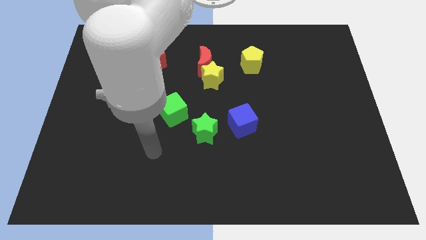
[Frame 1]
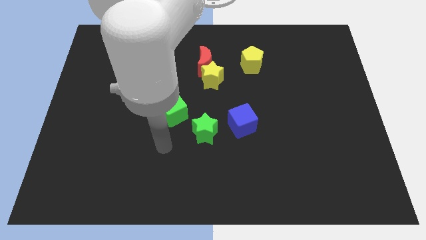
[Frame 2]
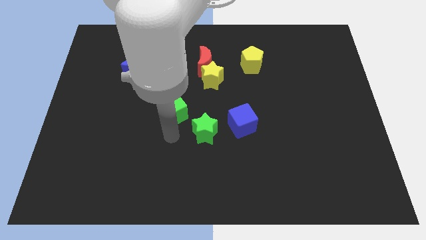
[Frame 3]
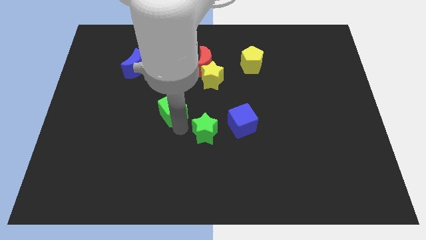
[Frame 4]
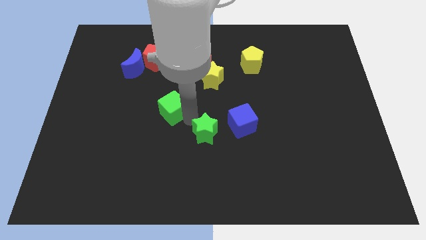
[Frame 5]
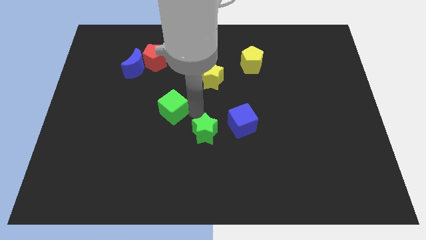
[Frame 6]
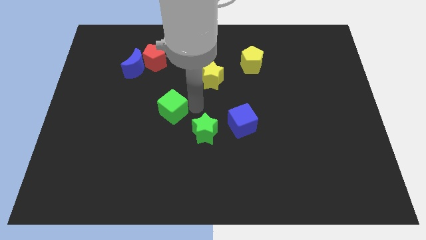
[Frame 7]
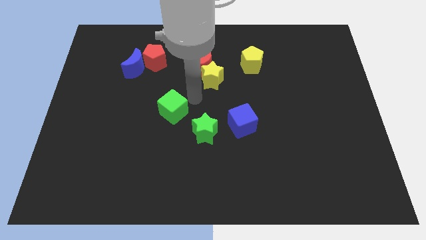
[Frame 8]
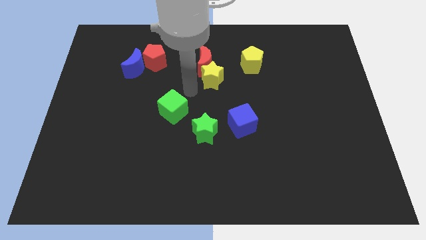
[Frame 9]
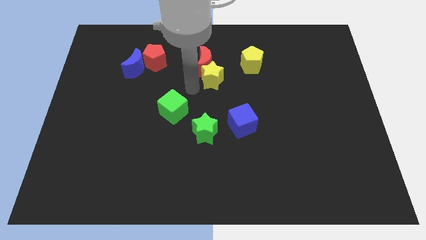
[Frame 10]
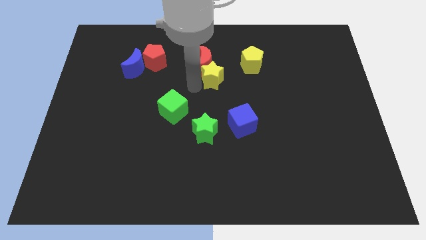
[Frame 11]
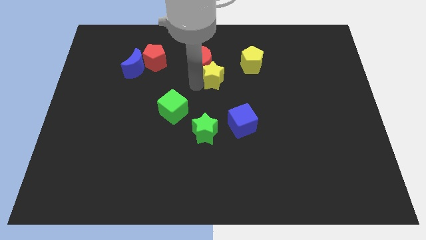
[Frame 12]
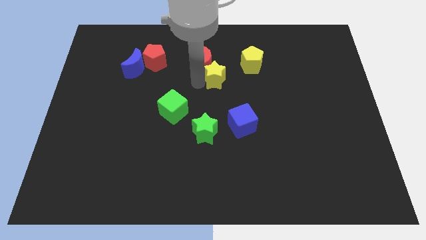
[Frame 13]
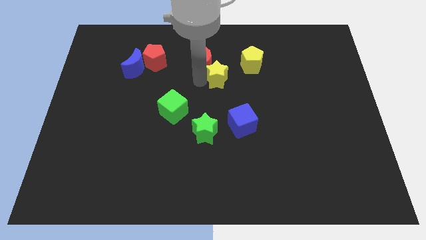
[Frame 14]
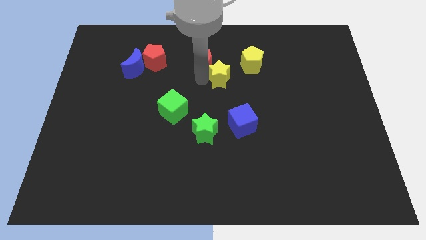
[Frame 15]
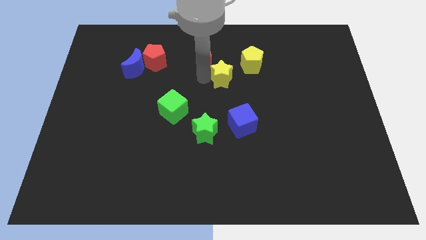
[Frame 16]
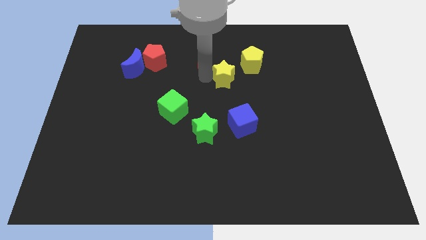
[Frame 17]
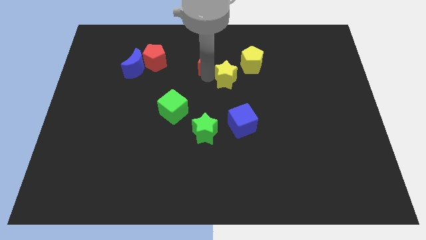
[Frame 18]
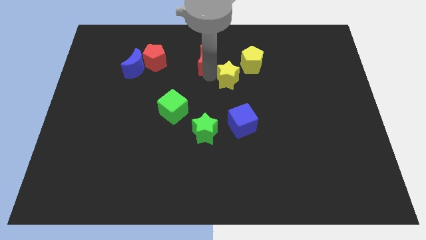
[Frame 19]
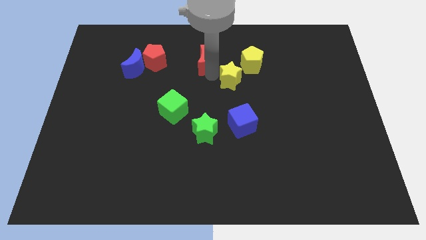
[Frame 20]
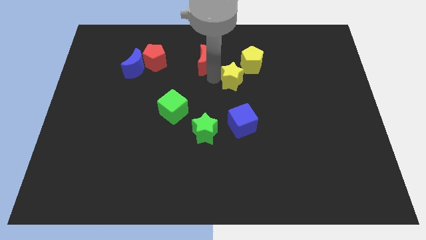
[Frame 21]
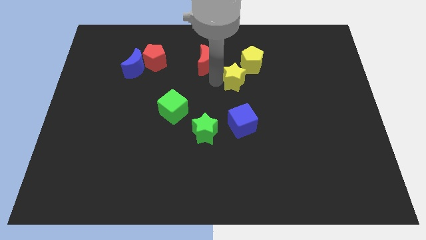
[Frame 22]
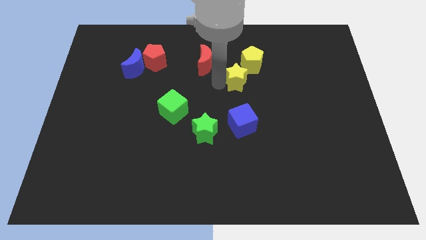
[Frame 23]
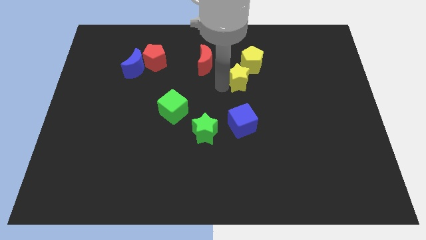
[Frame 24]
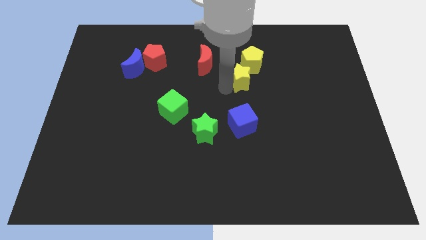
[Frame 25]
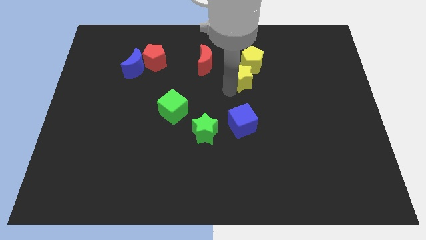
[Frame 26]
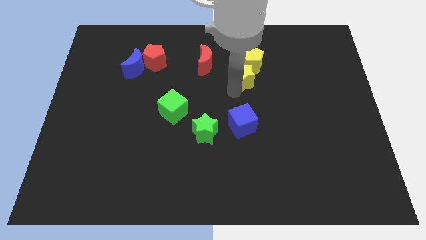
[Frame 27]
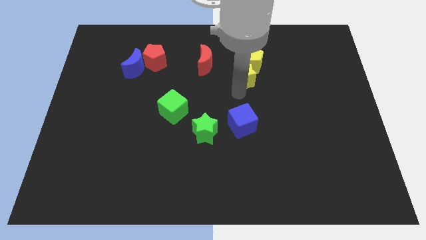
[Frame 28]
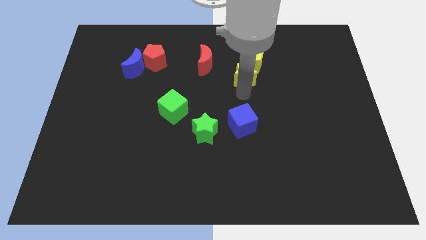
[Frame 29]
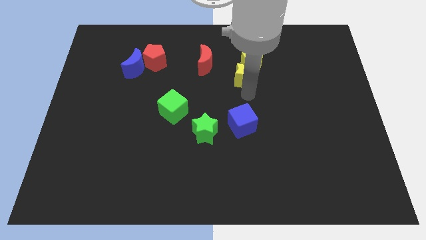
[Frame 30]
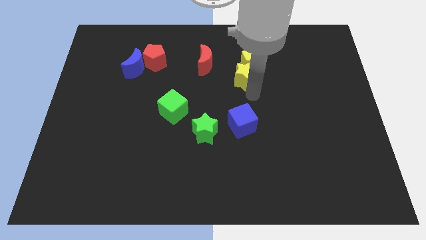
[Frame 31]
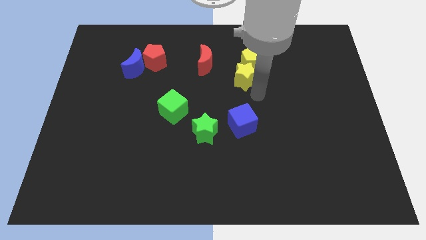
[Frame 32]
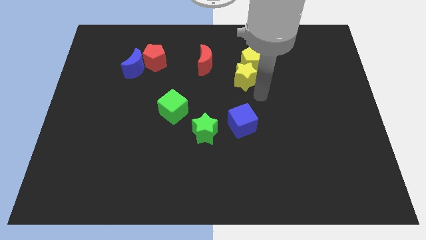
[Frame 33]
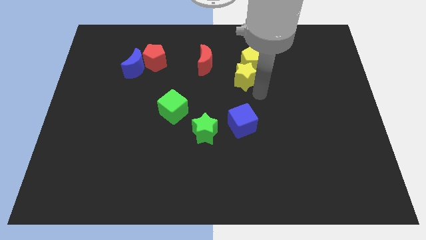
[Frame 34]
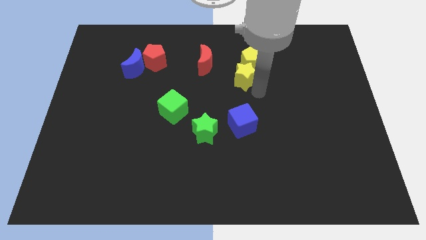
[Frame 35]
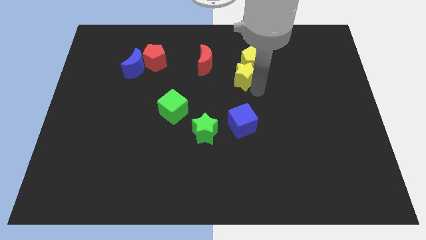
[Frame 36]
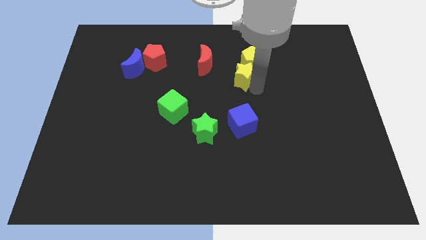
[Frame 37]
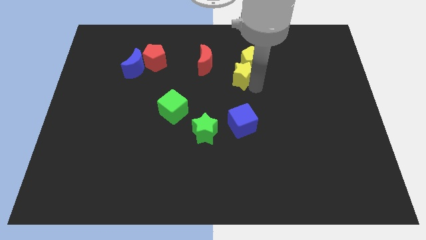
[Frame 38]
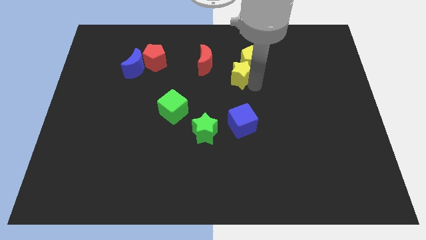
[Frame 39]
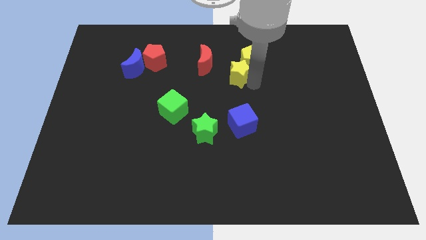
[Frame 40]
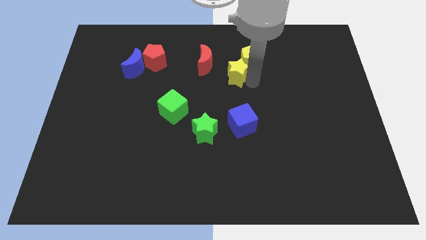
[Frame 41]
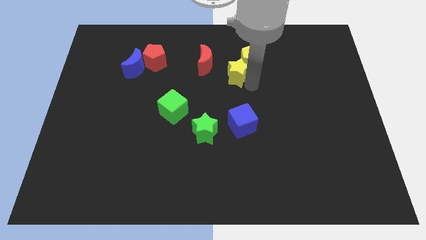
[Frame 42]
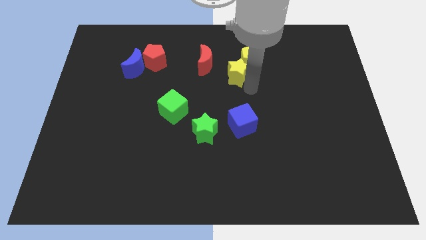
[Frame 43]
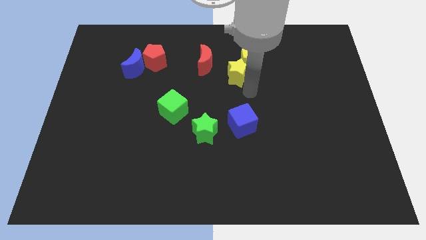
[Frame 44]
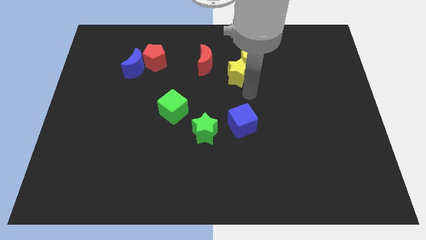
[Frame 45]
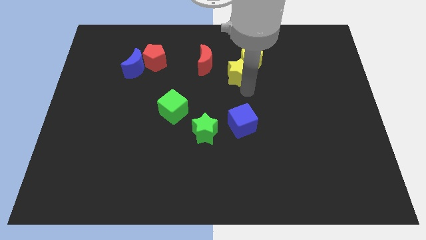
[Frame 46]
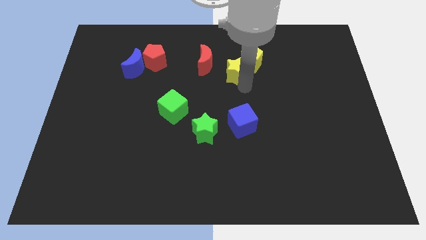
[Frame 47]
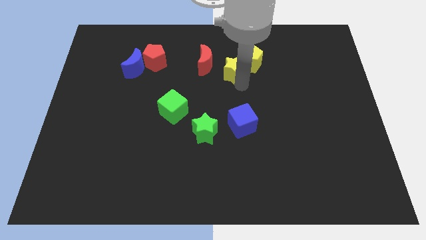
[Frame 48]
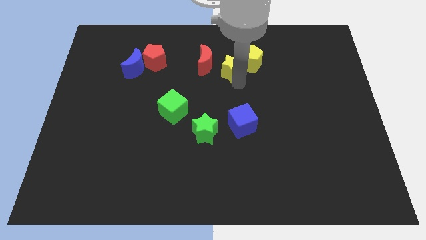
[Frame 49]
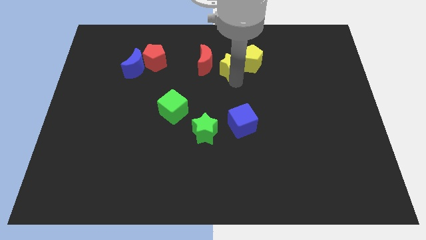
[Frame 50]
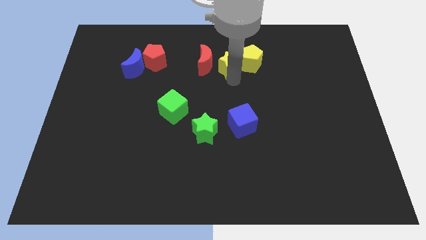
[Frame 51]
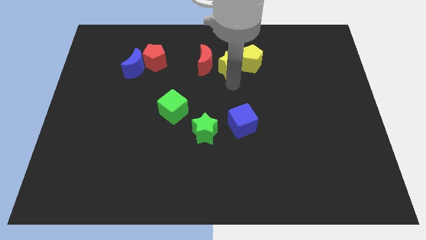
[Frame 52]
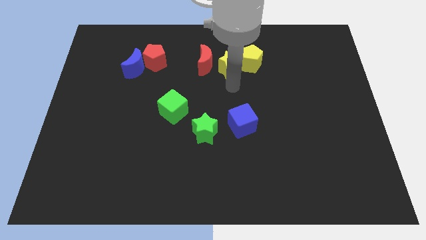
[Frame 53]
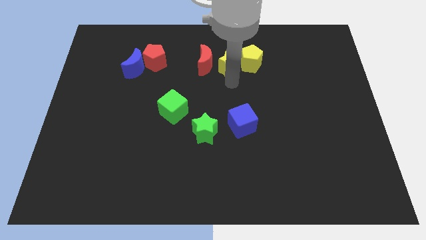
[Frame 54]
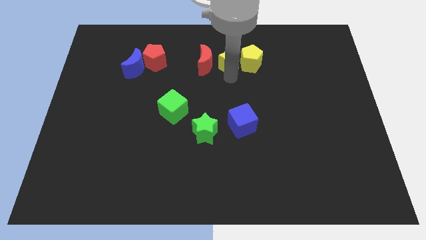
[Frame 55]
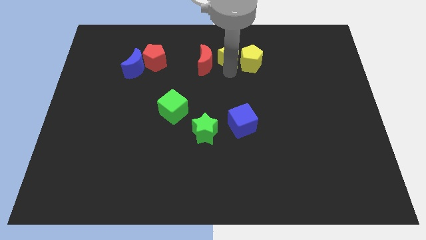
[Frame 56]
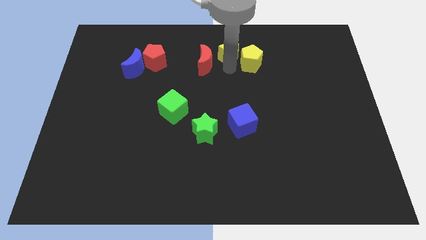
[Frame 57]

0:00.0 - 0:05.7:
slide the yellow star to the top side

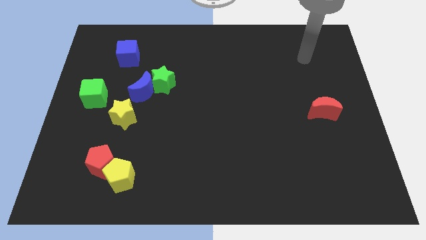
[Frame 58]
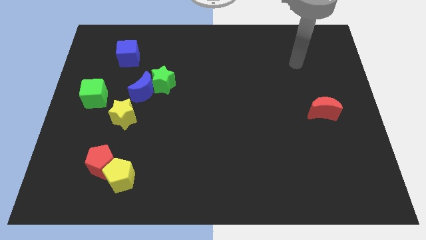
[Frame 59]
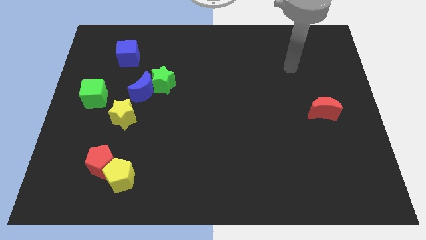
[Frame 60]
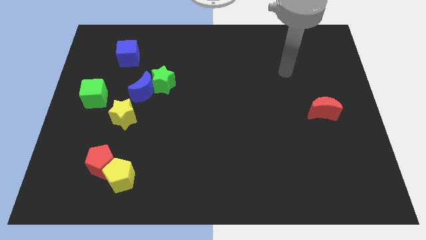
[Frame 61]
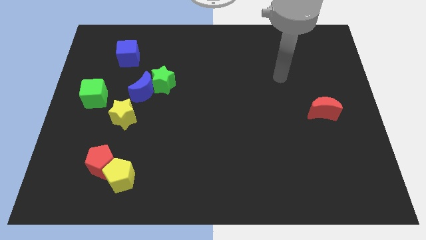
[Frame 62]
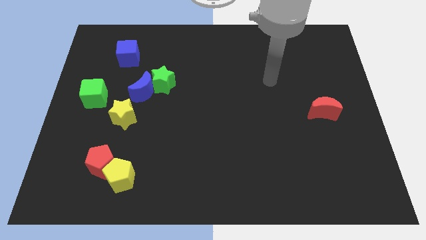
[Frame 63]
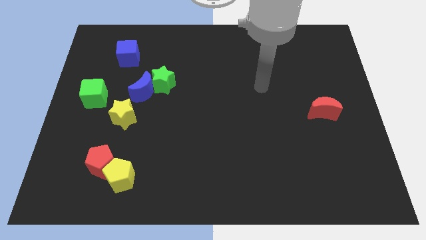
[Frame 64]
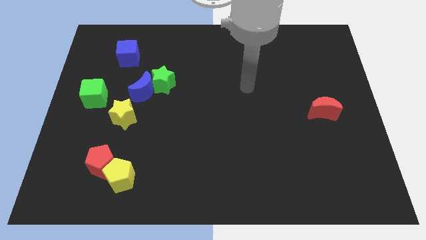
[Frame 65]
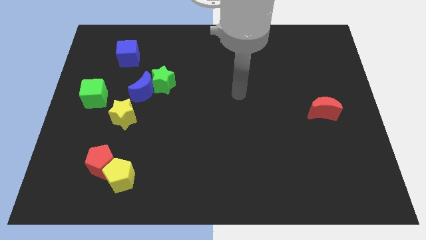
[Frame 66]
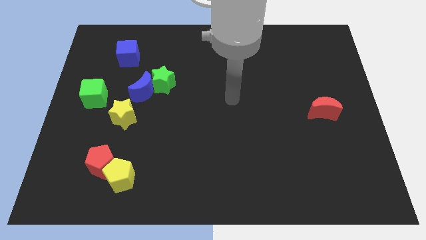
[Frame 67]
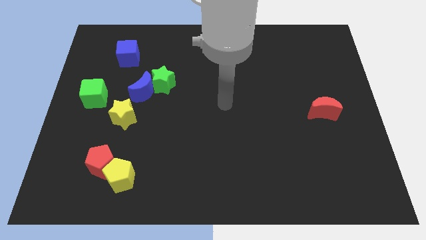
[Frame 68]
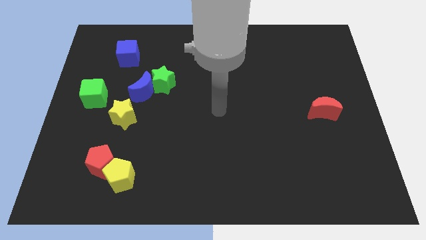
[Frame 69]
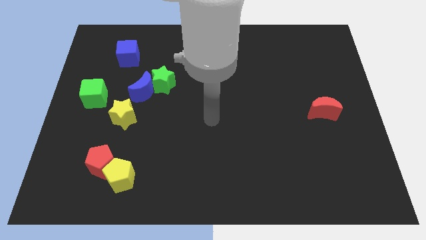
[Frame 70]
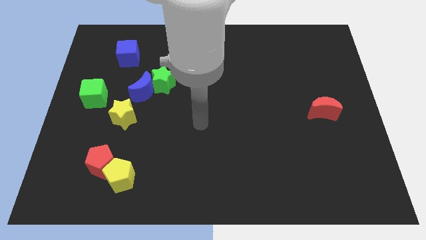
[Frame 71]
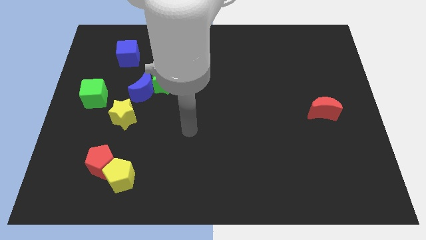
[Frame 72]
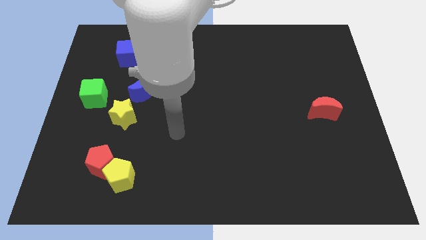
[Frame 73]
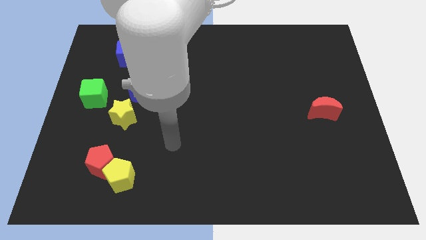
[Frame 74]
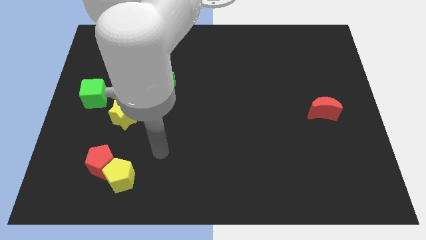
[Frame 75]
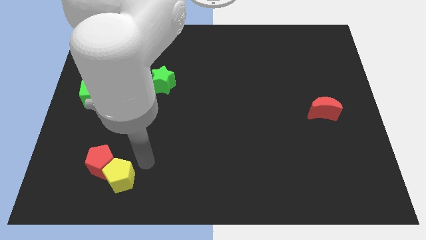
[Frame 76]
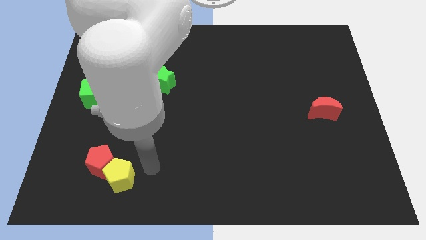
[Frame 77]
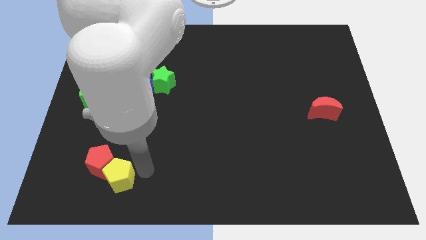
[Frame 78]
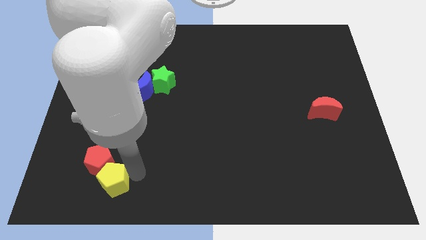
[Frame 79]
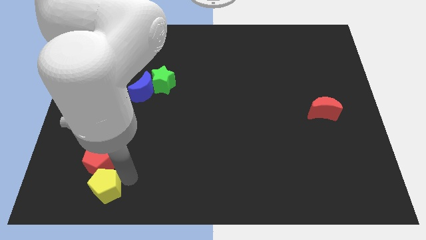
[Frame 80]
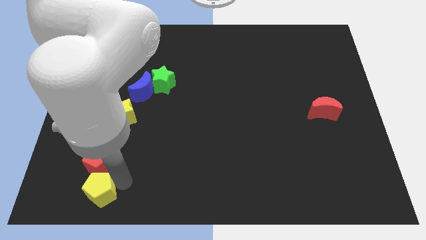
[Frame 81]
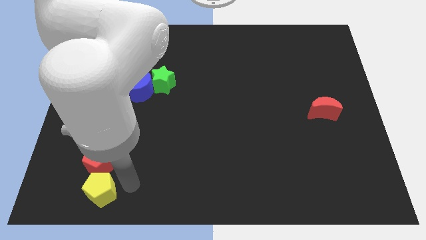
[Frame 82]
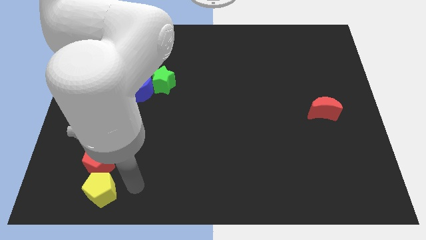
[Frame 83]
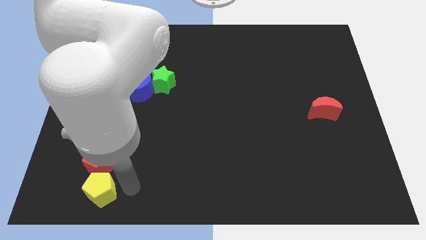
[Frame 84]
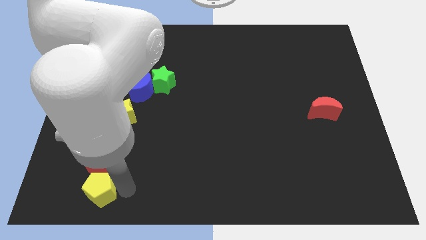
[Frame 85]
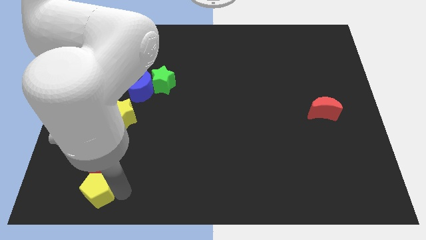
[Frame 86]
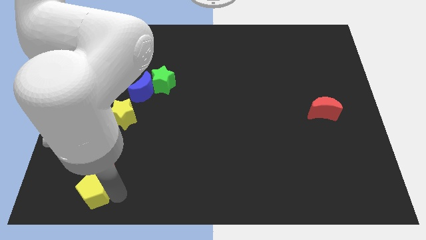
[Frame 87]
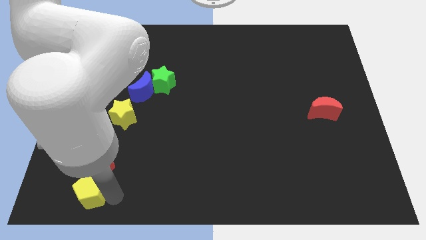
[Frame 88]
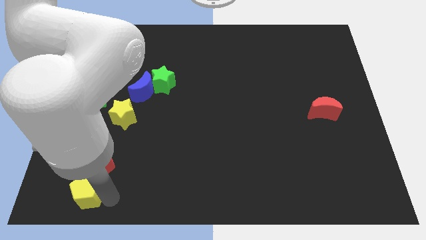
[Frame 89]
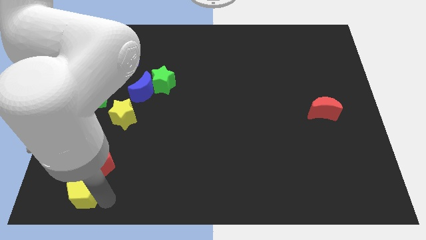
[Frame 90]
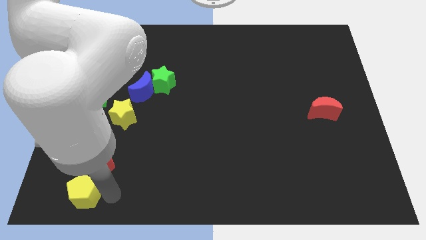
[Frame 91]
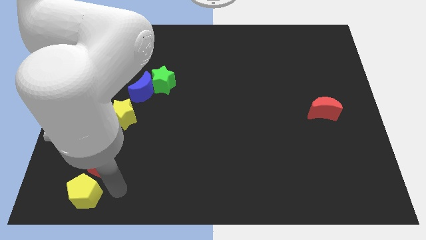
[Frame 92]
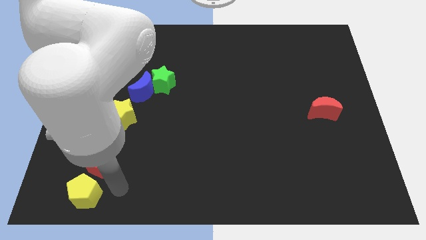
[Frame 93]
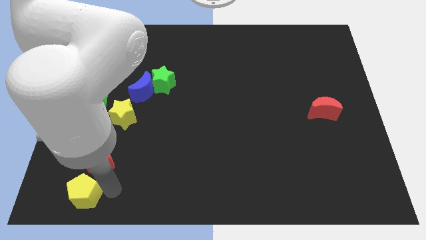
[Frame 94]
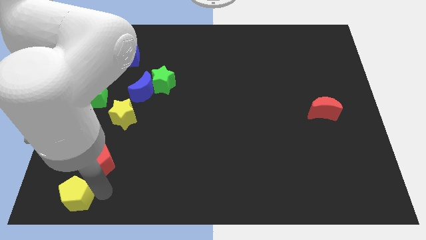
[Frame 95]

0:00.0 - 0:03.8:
slide the yellow pentagon to the bottom left
